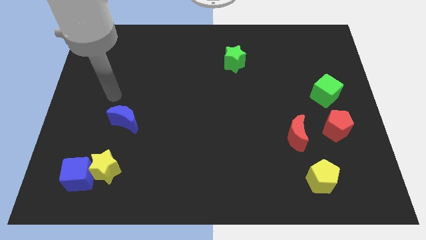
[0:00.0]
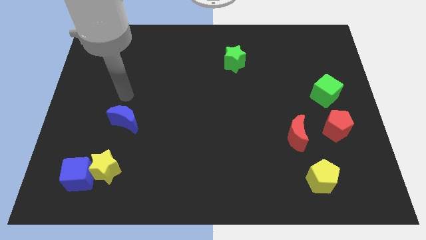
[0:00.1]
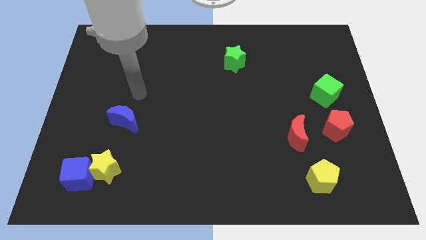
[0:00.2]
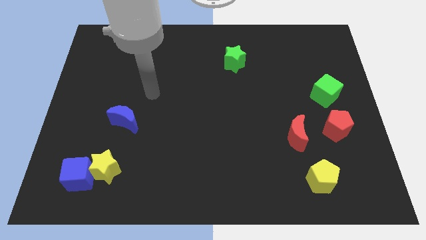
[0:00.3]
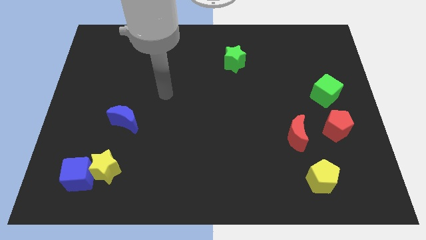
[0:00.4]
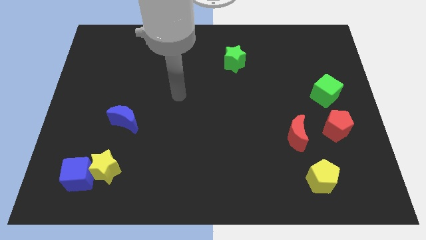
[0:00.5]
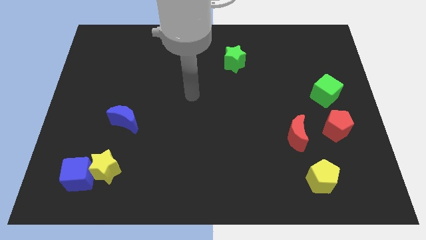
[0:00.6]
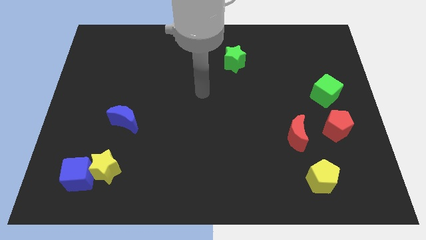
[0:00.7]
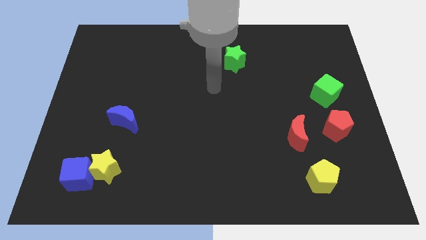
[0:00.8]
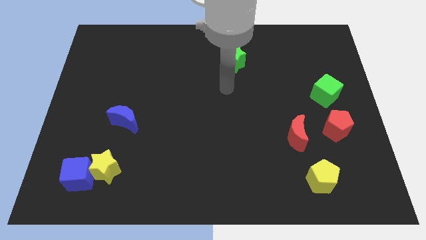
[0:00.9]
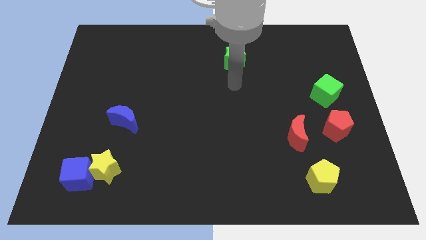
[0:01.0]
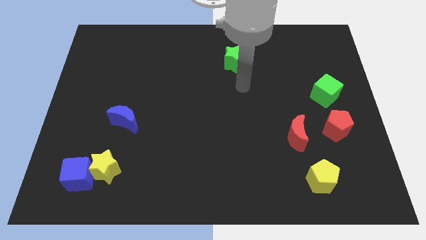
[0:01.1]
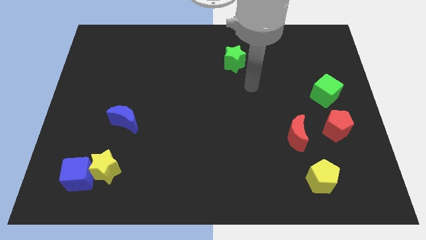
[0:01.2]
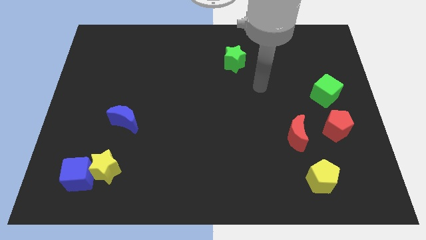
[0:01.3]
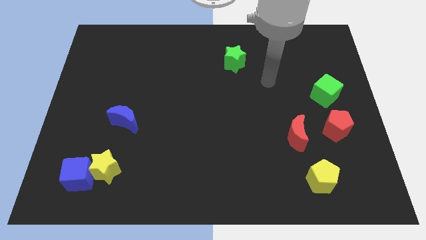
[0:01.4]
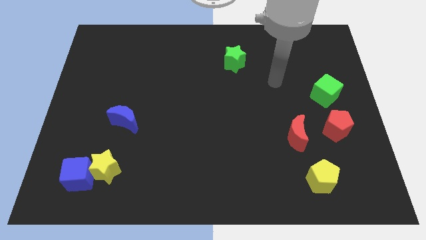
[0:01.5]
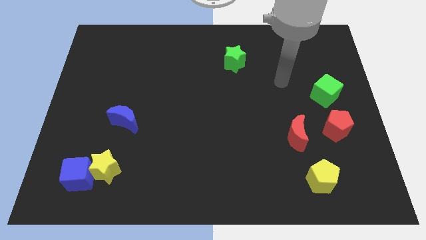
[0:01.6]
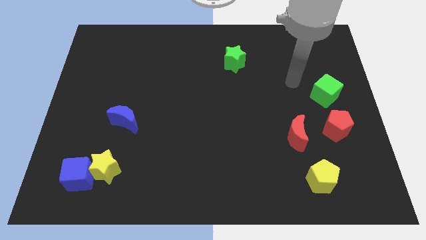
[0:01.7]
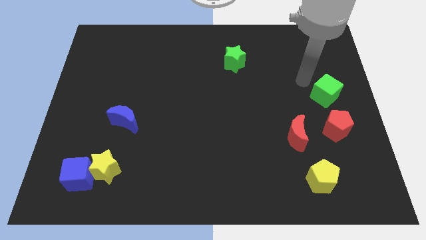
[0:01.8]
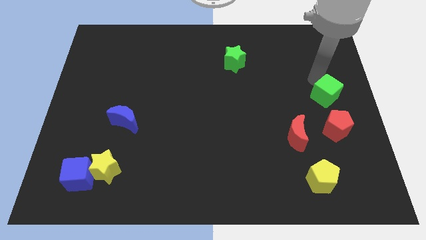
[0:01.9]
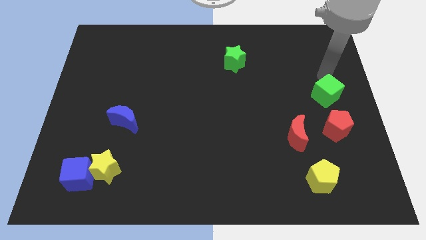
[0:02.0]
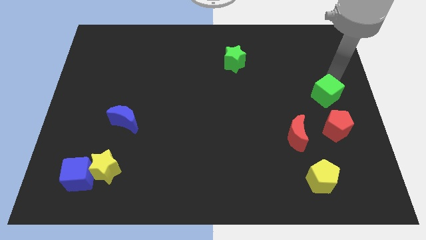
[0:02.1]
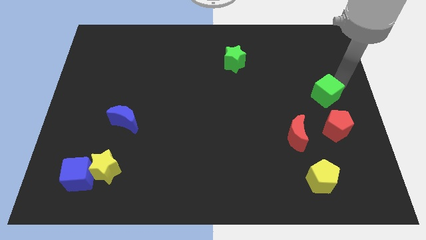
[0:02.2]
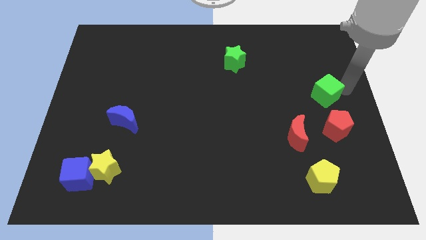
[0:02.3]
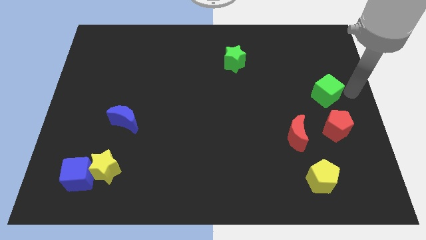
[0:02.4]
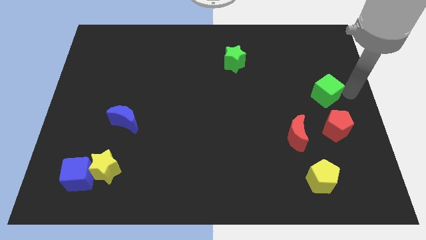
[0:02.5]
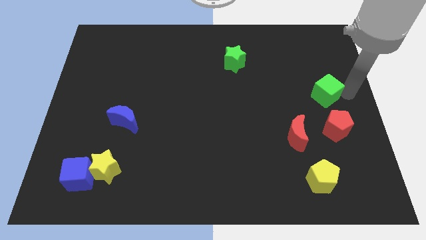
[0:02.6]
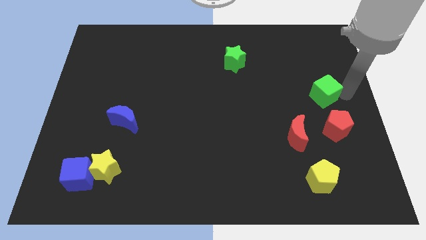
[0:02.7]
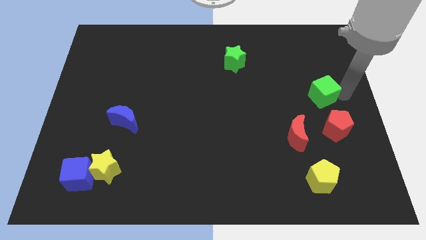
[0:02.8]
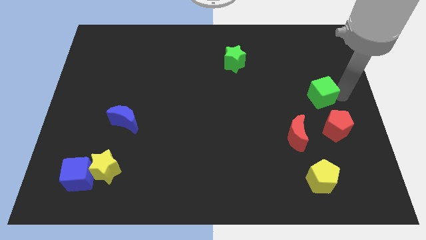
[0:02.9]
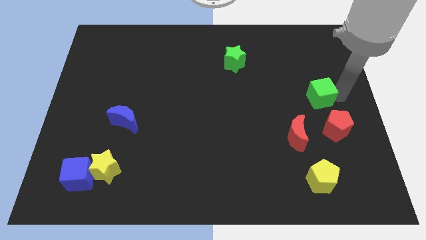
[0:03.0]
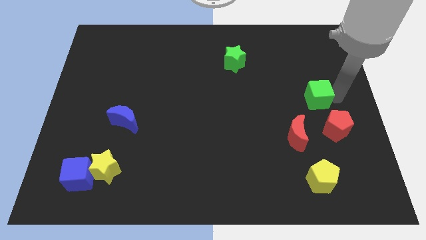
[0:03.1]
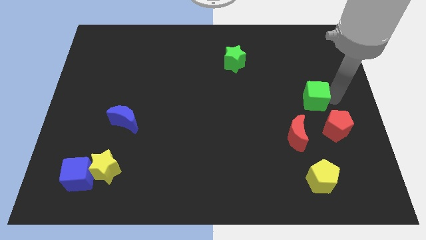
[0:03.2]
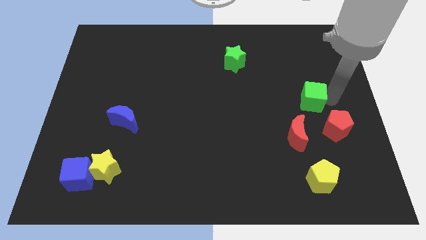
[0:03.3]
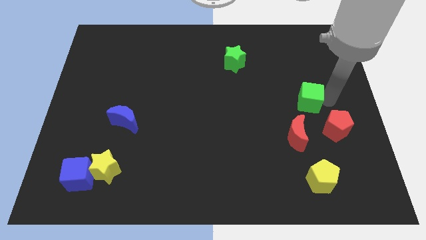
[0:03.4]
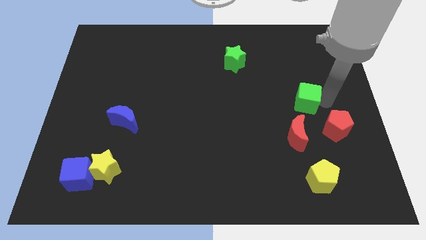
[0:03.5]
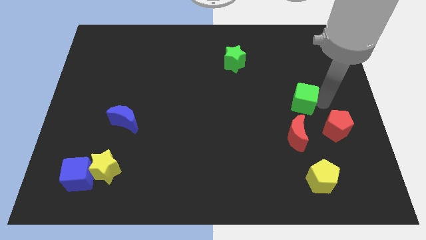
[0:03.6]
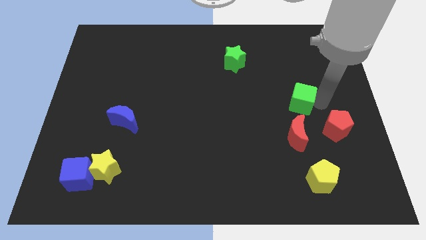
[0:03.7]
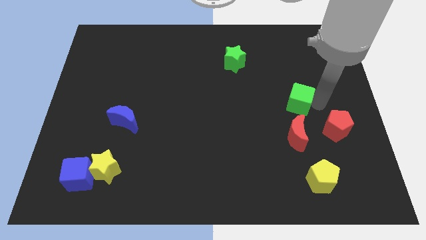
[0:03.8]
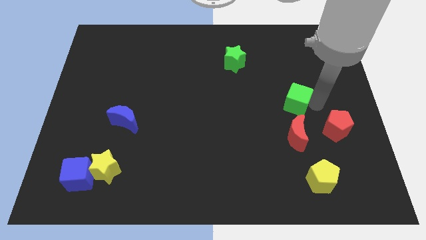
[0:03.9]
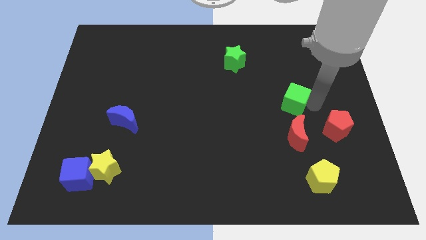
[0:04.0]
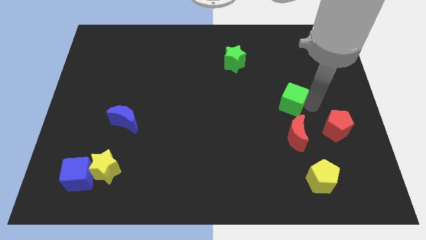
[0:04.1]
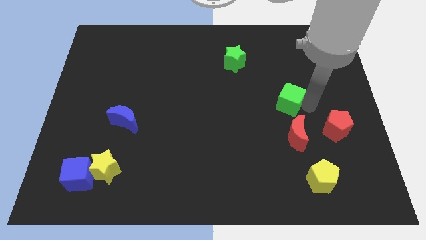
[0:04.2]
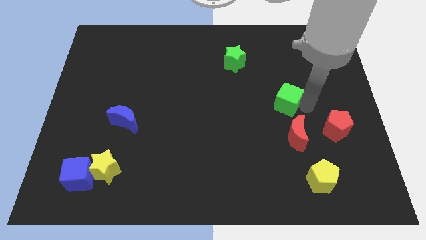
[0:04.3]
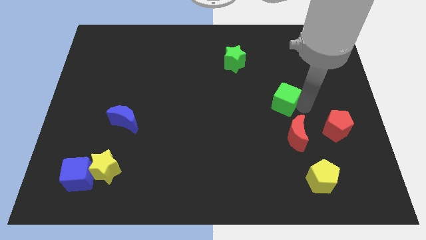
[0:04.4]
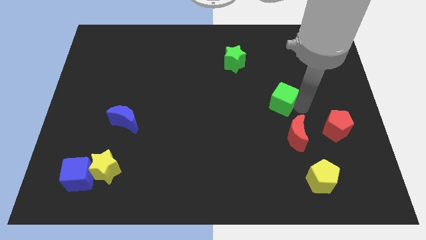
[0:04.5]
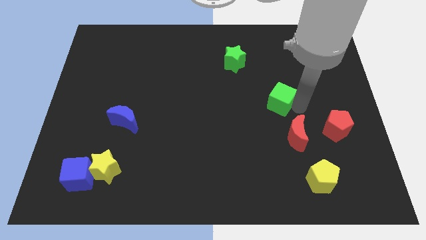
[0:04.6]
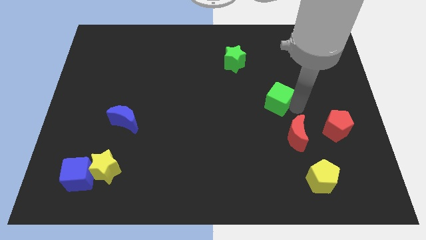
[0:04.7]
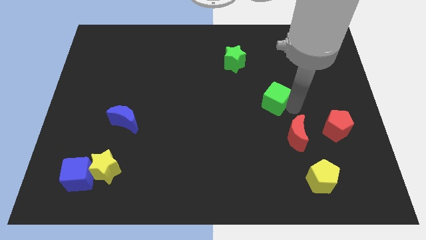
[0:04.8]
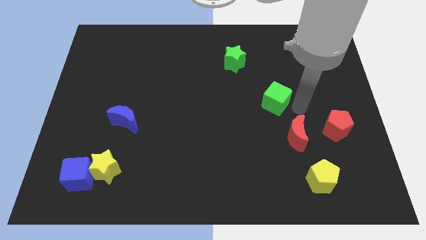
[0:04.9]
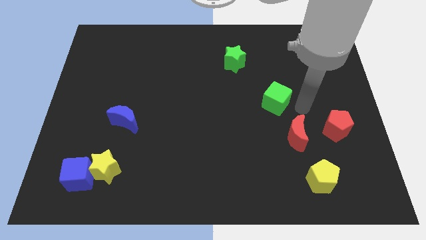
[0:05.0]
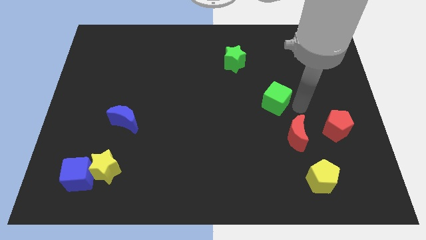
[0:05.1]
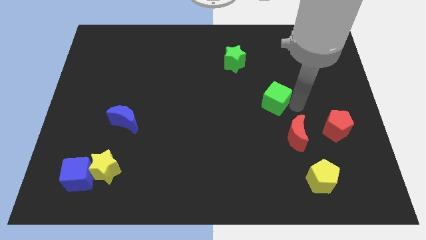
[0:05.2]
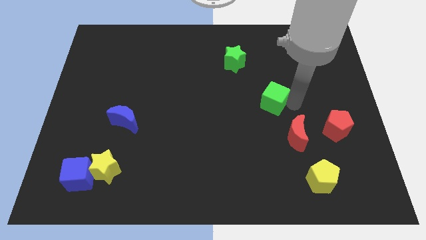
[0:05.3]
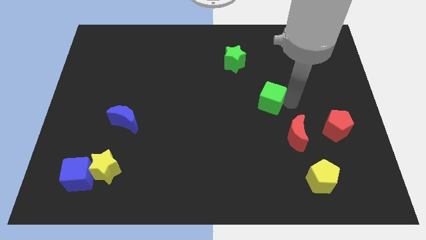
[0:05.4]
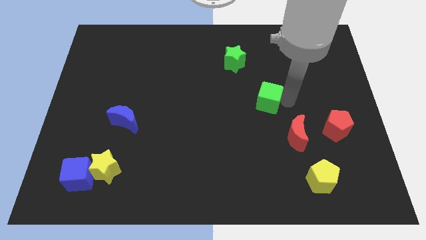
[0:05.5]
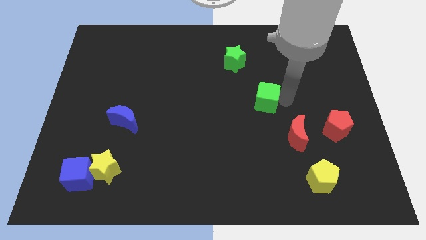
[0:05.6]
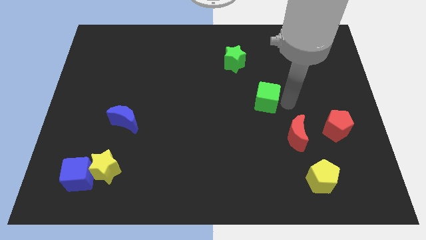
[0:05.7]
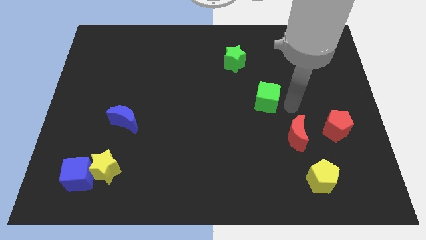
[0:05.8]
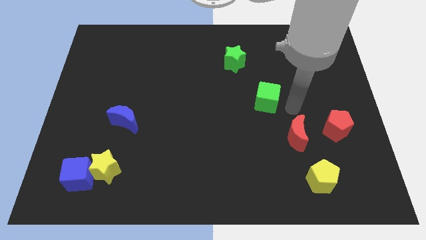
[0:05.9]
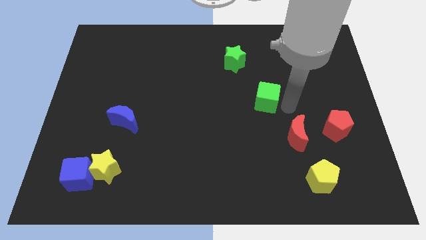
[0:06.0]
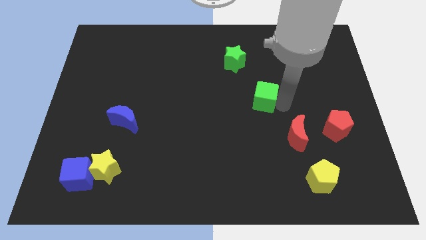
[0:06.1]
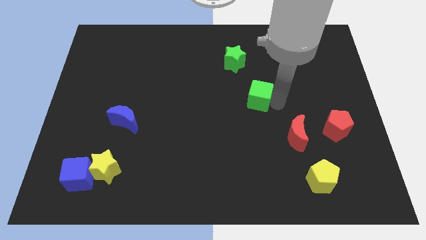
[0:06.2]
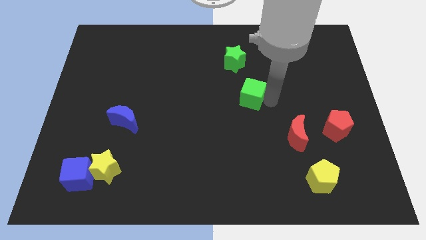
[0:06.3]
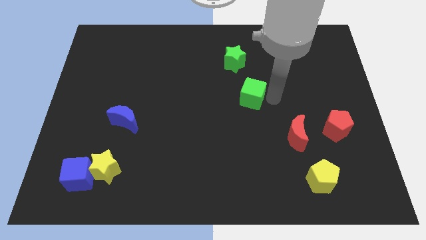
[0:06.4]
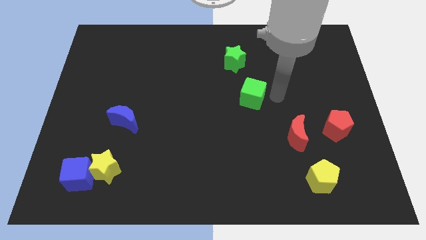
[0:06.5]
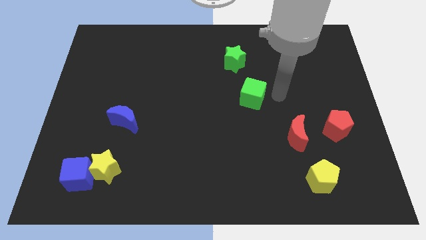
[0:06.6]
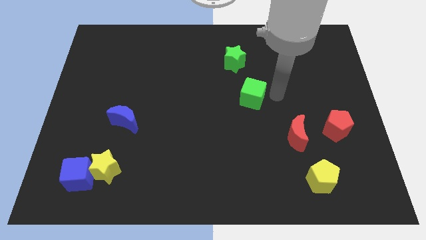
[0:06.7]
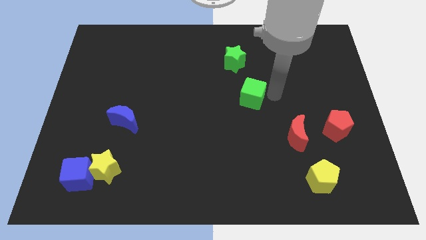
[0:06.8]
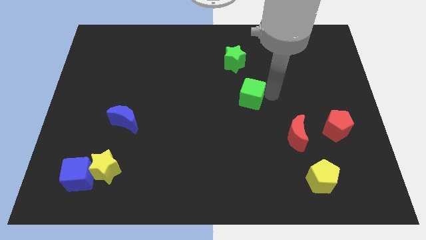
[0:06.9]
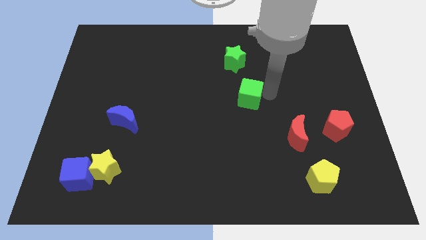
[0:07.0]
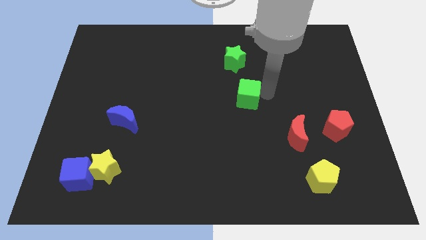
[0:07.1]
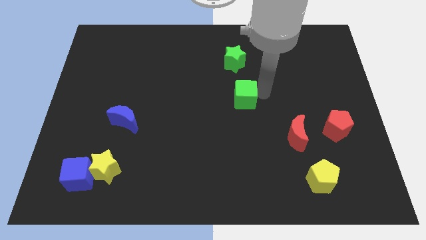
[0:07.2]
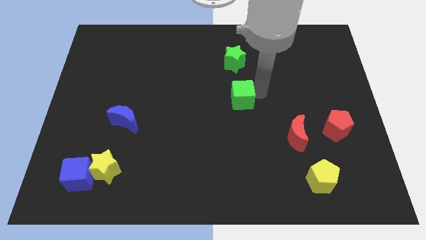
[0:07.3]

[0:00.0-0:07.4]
push the green cube to the left

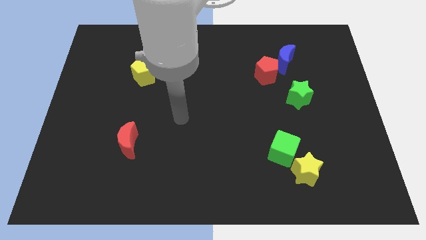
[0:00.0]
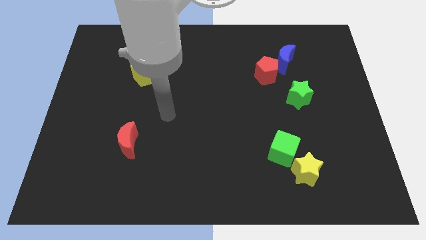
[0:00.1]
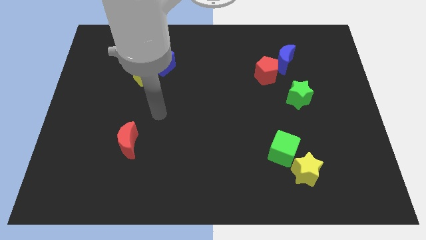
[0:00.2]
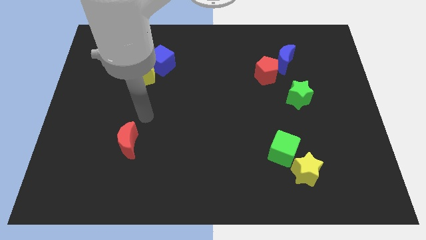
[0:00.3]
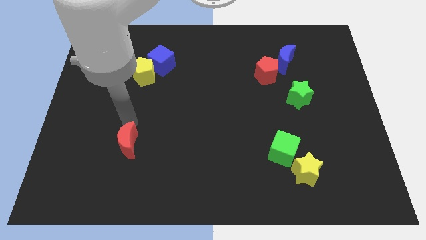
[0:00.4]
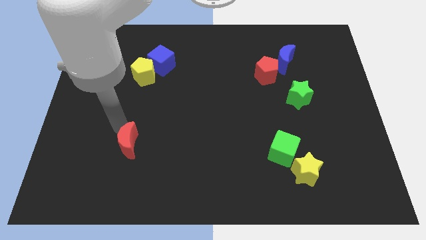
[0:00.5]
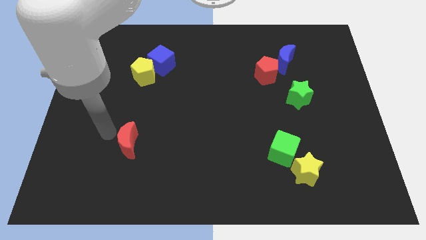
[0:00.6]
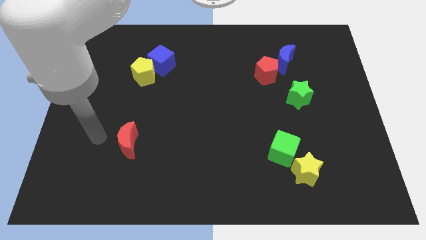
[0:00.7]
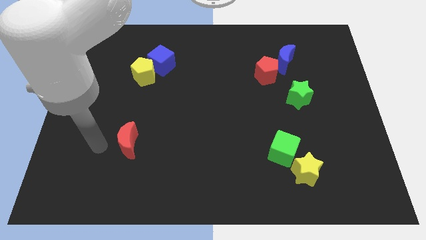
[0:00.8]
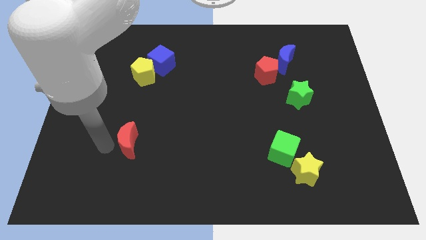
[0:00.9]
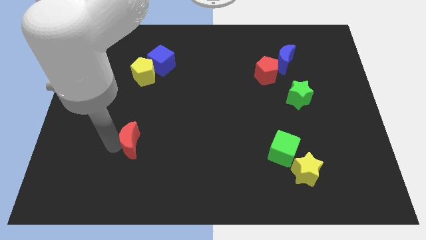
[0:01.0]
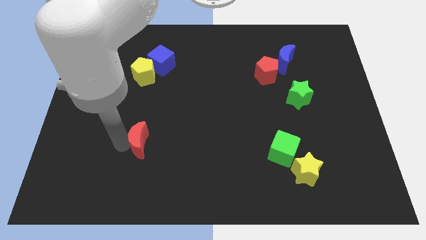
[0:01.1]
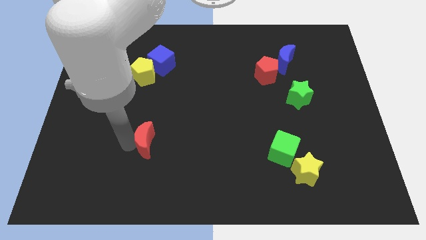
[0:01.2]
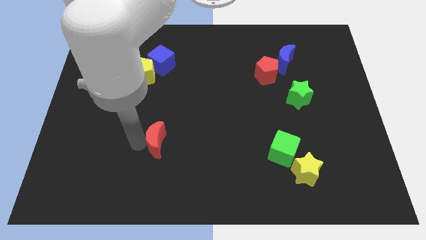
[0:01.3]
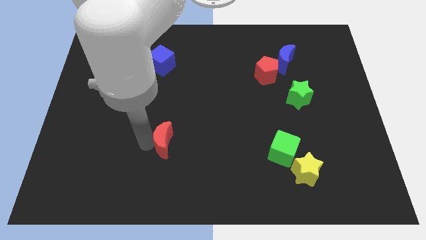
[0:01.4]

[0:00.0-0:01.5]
slide the red moon right a bit
